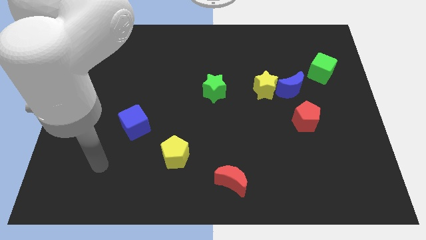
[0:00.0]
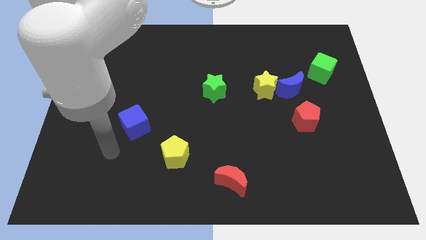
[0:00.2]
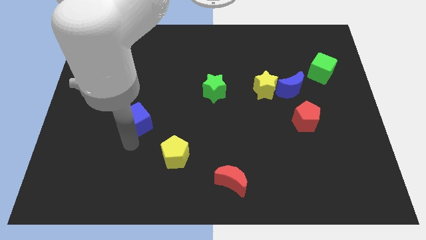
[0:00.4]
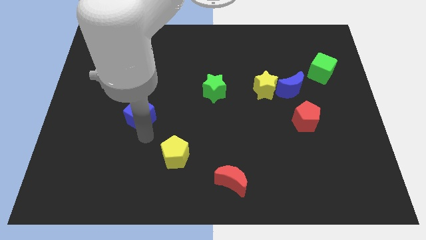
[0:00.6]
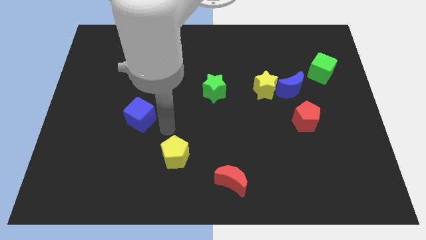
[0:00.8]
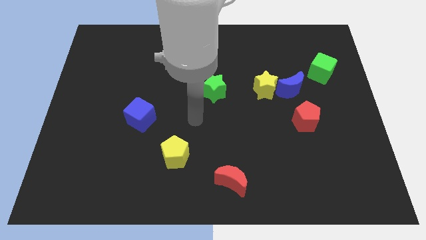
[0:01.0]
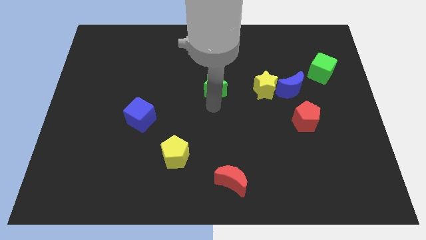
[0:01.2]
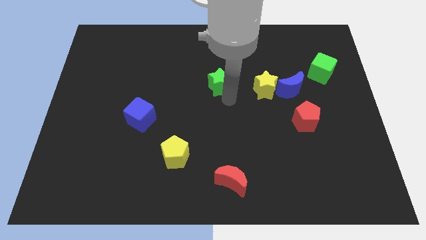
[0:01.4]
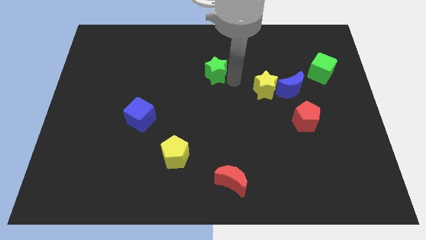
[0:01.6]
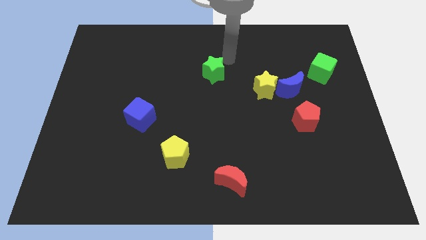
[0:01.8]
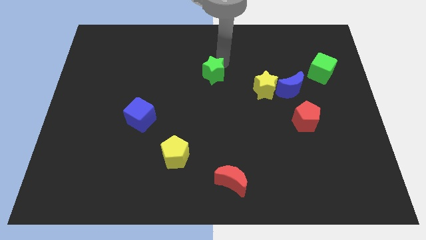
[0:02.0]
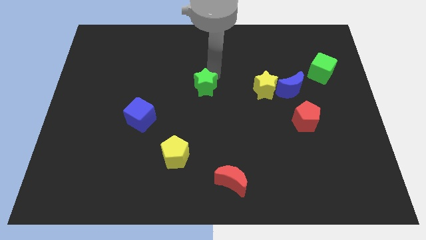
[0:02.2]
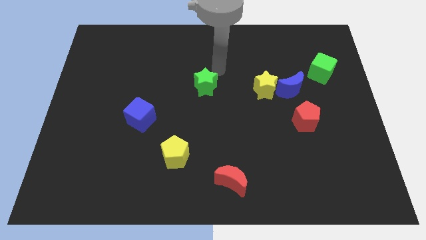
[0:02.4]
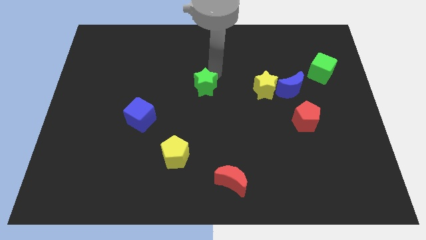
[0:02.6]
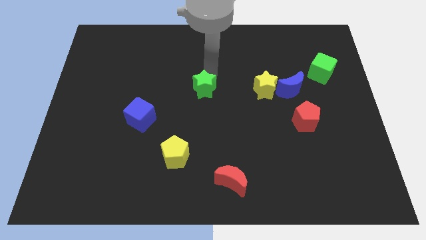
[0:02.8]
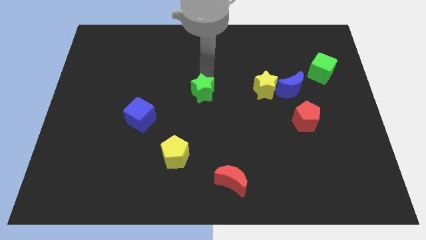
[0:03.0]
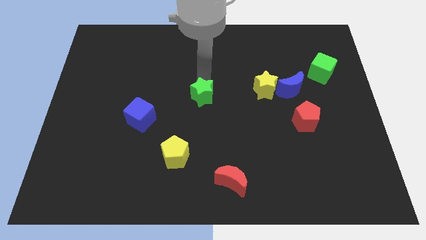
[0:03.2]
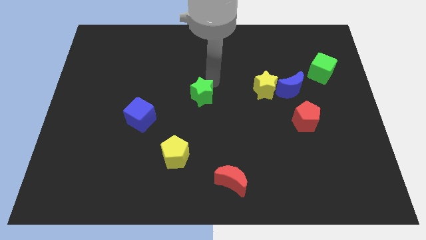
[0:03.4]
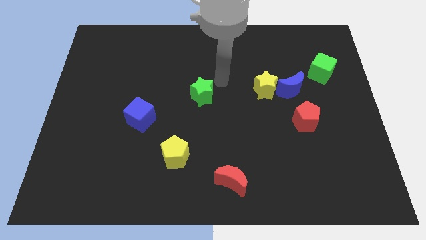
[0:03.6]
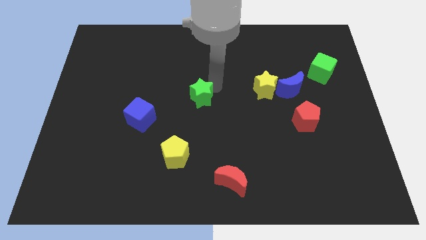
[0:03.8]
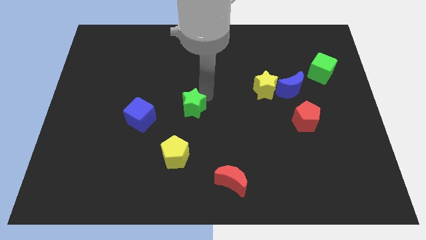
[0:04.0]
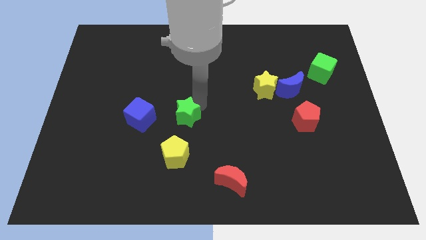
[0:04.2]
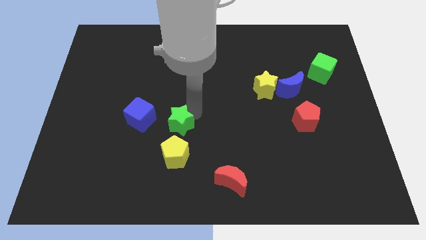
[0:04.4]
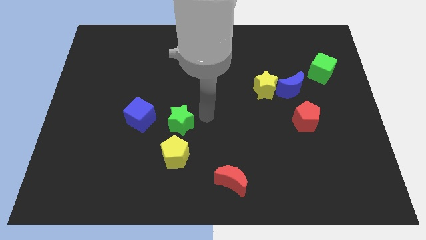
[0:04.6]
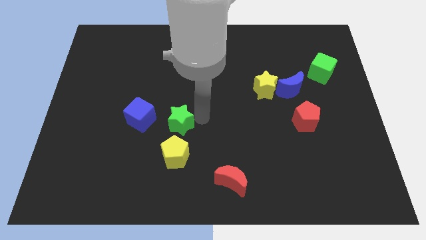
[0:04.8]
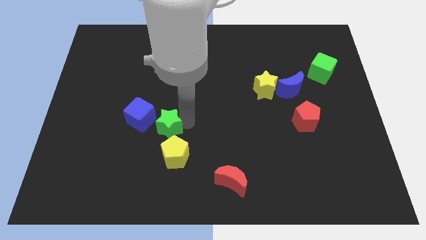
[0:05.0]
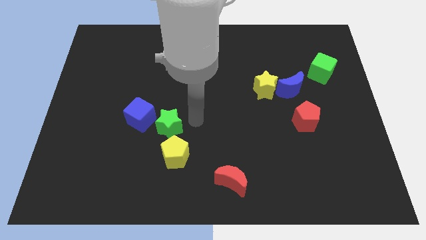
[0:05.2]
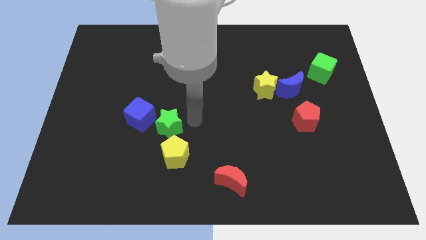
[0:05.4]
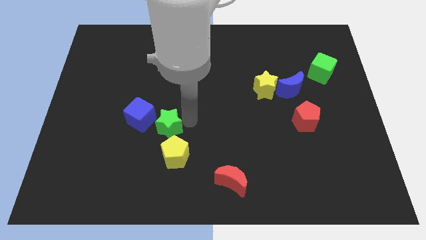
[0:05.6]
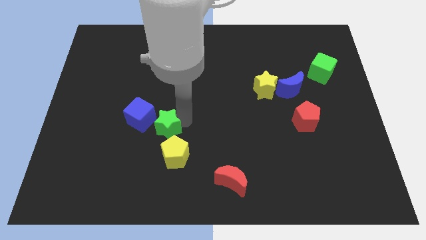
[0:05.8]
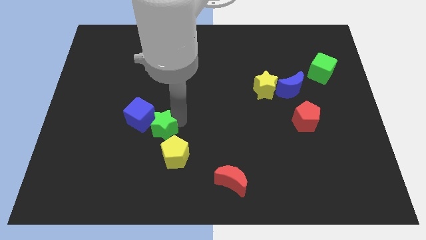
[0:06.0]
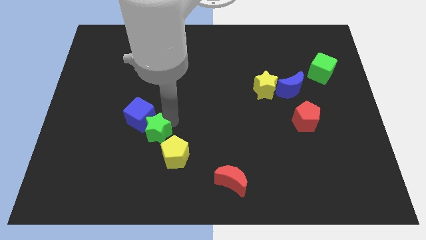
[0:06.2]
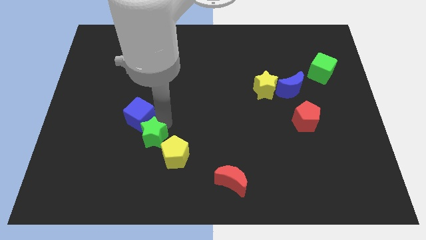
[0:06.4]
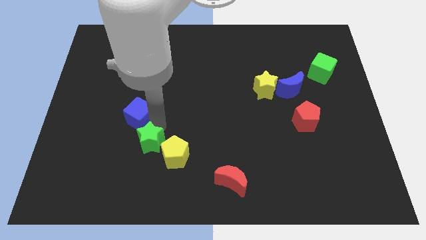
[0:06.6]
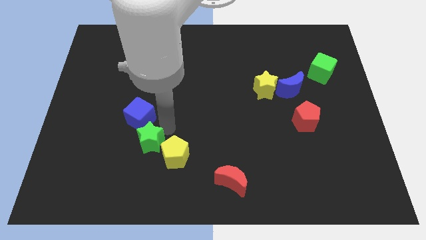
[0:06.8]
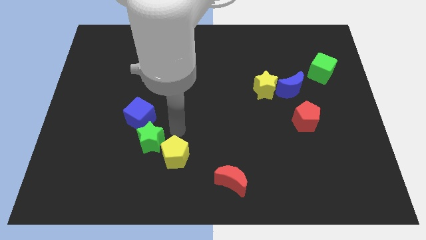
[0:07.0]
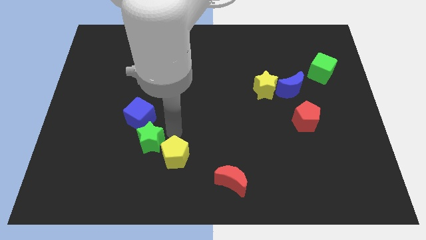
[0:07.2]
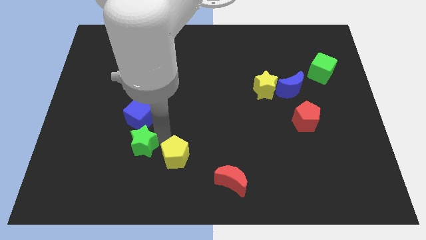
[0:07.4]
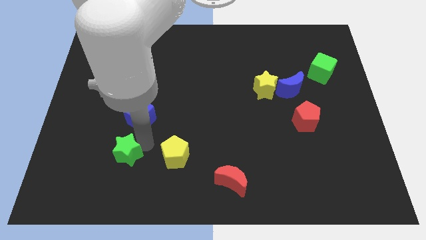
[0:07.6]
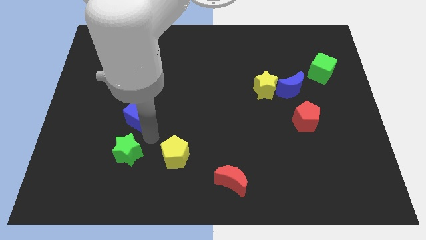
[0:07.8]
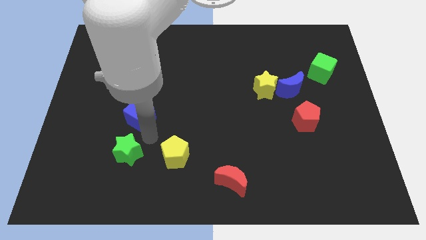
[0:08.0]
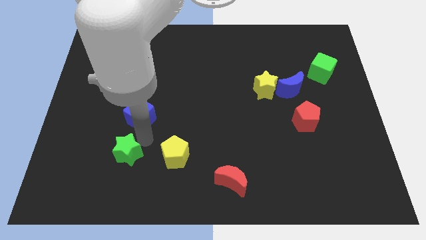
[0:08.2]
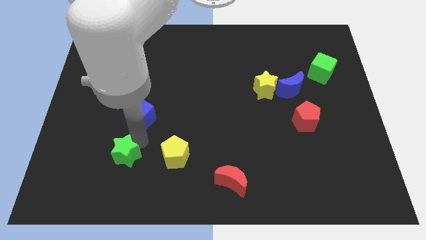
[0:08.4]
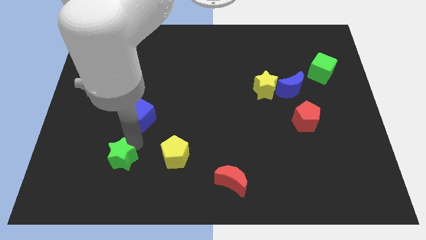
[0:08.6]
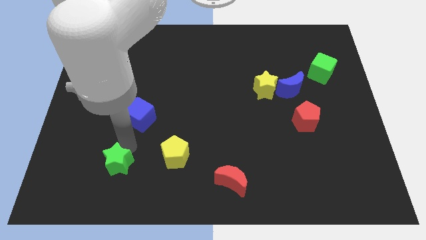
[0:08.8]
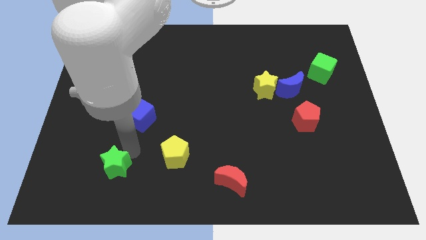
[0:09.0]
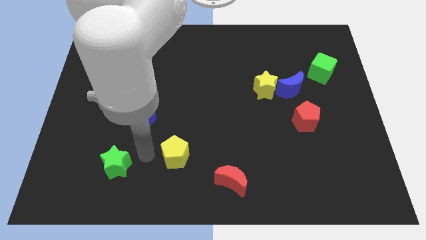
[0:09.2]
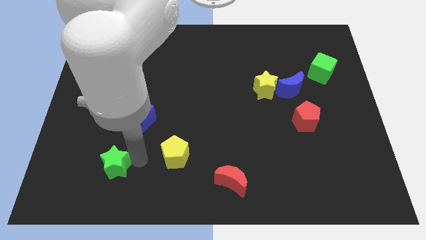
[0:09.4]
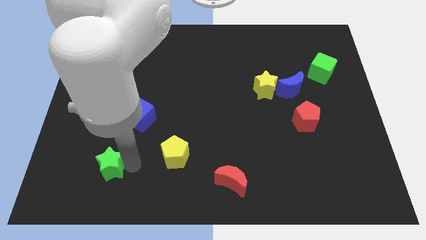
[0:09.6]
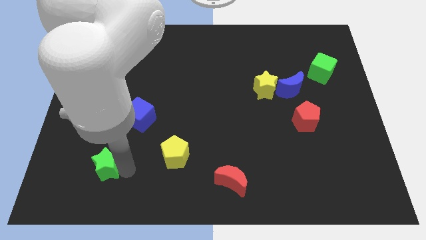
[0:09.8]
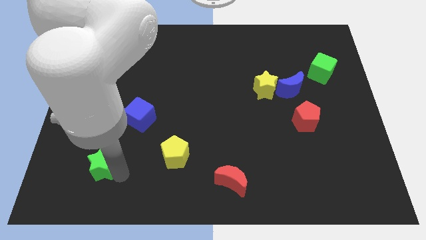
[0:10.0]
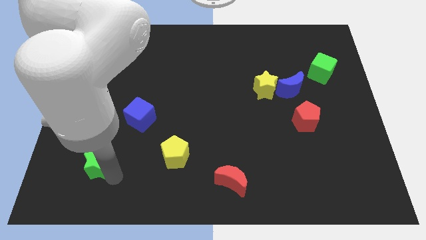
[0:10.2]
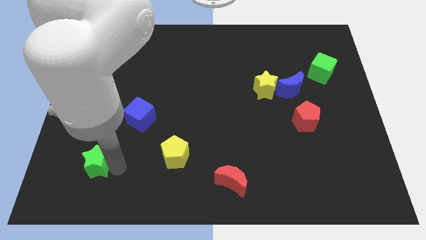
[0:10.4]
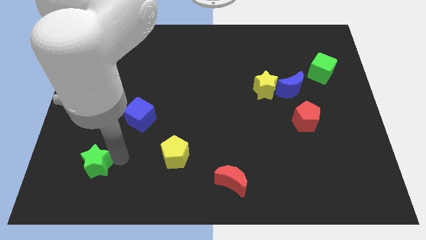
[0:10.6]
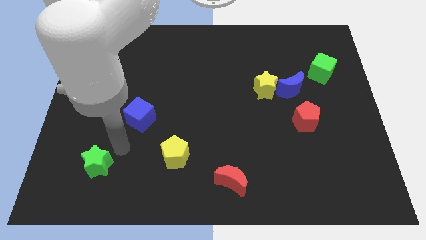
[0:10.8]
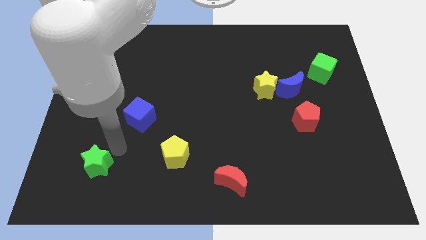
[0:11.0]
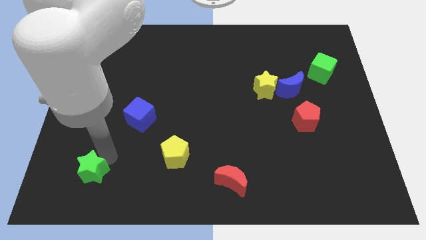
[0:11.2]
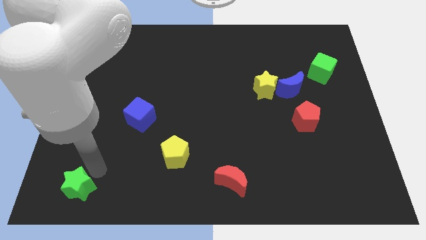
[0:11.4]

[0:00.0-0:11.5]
slide the green star to the lower left corner
